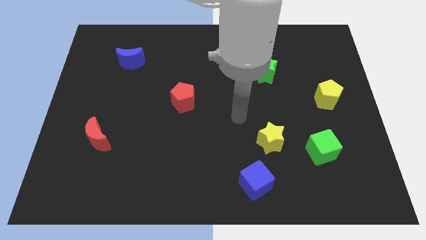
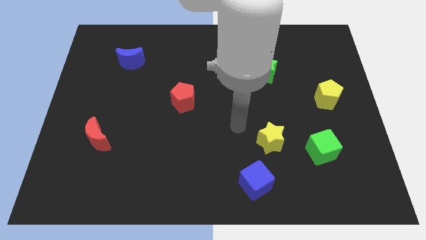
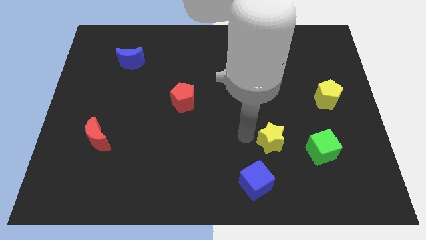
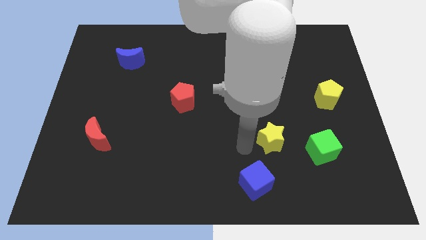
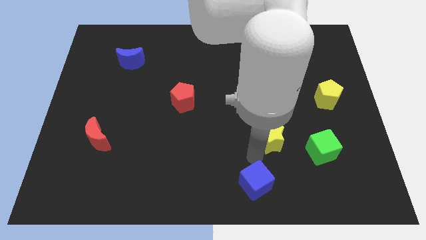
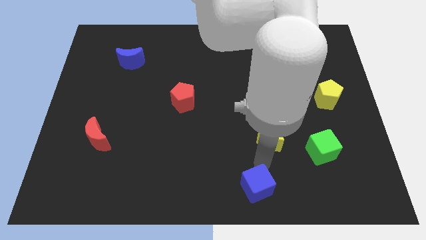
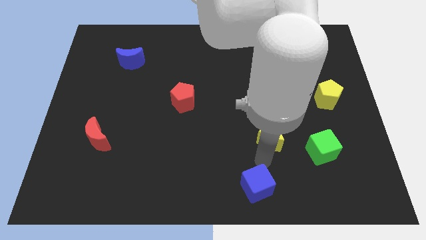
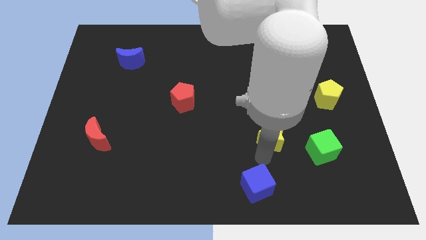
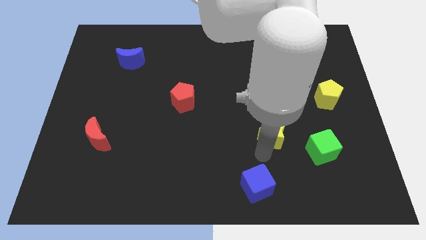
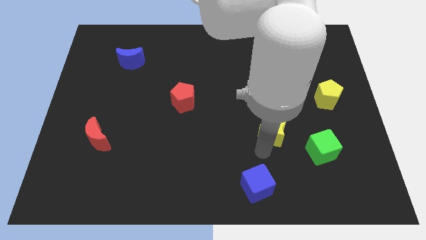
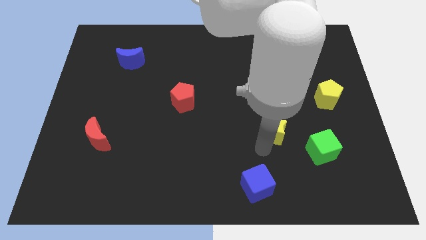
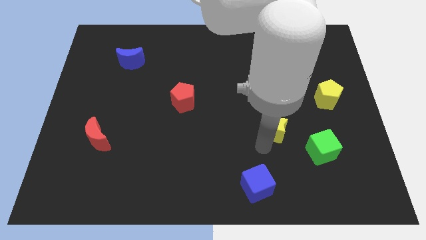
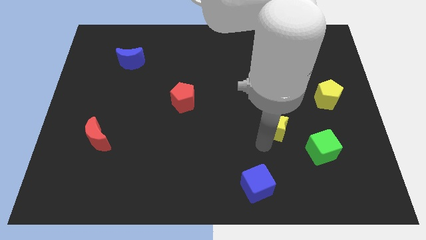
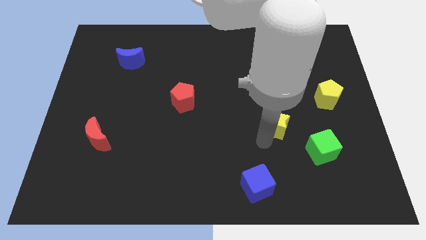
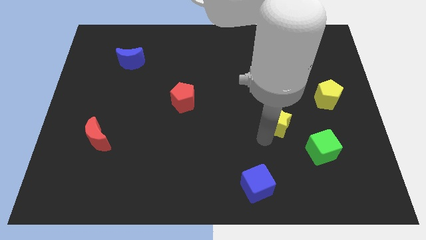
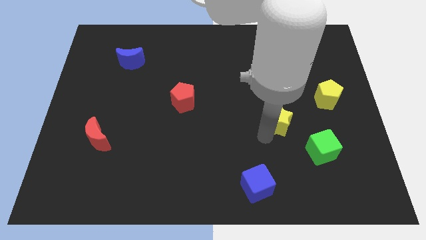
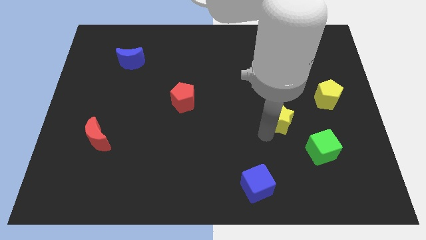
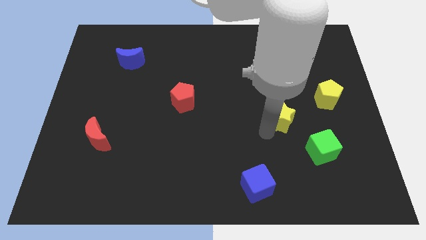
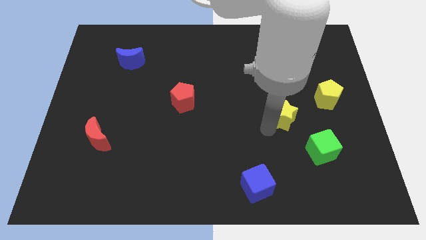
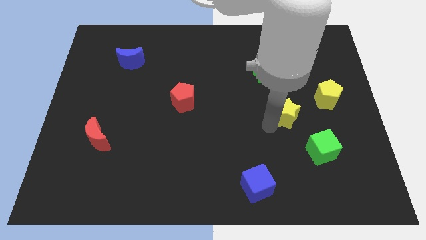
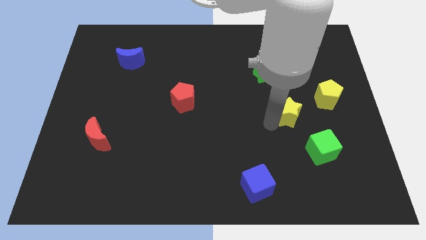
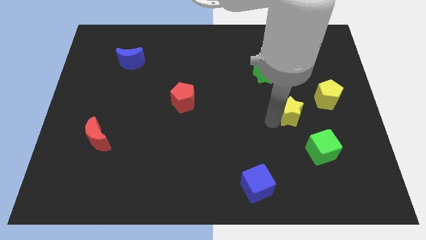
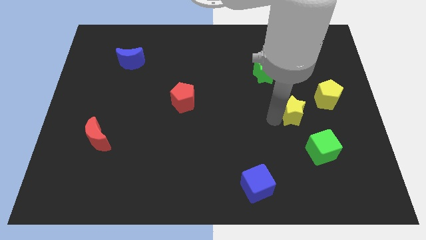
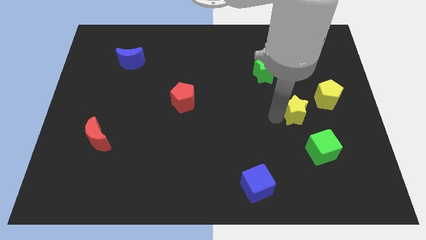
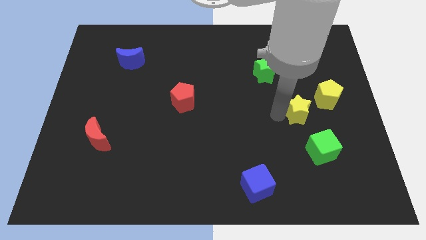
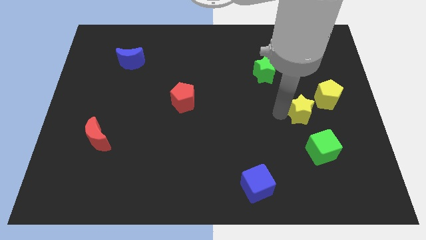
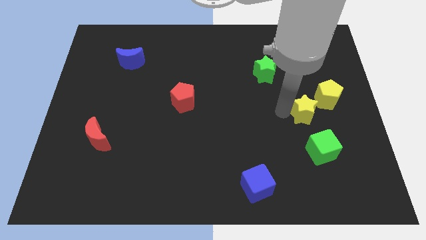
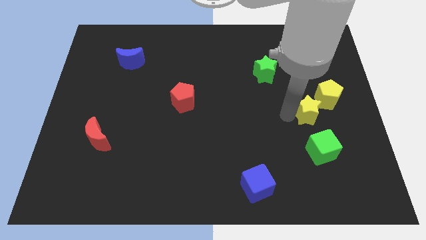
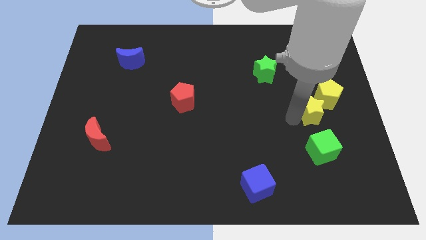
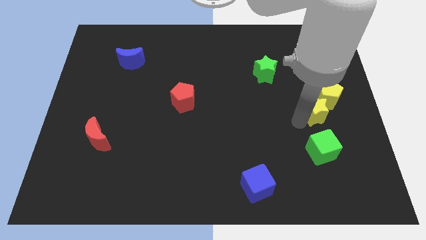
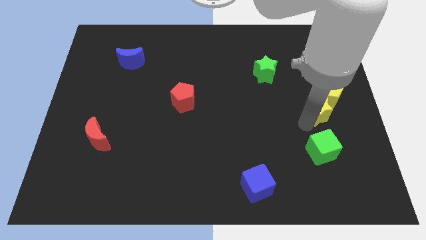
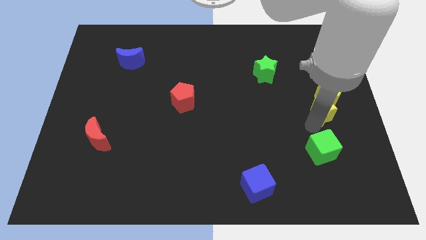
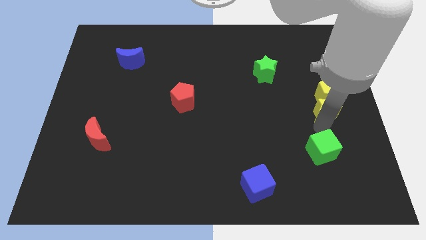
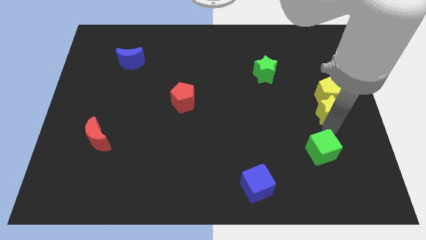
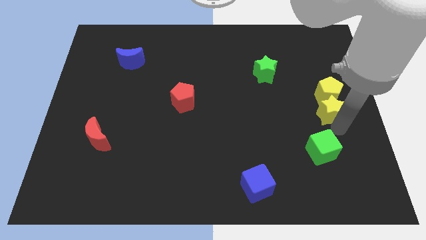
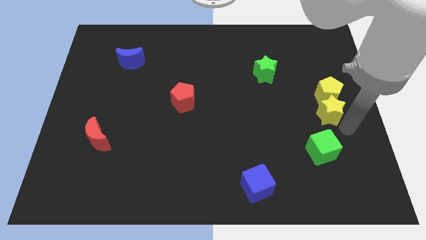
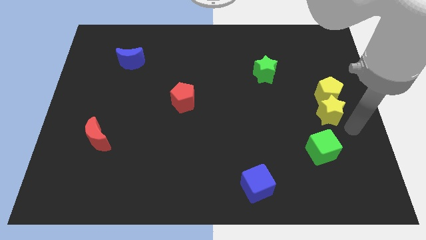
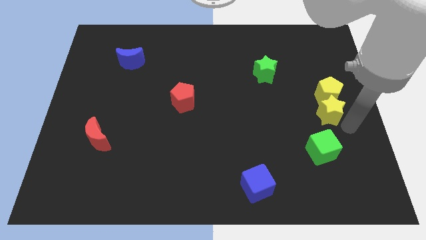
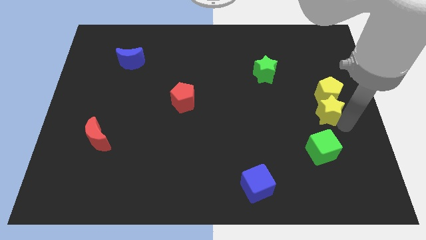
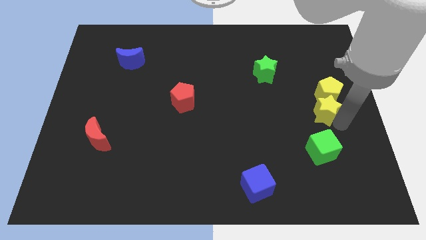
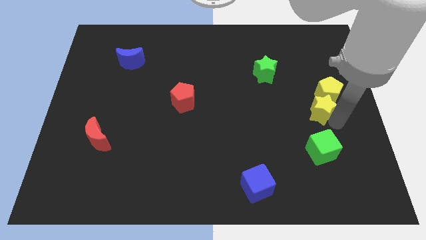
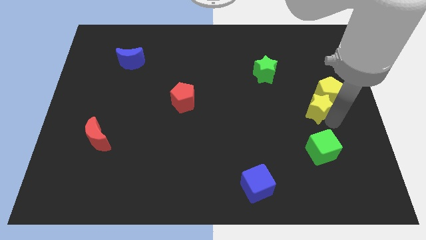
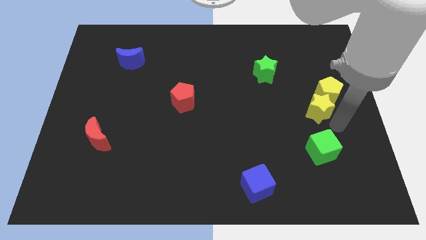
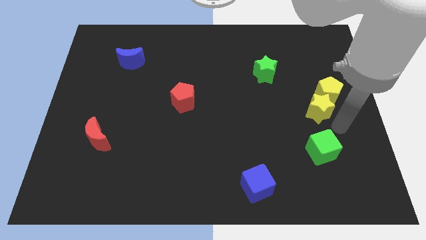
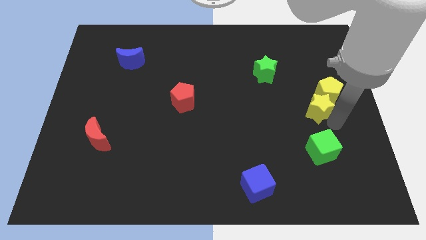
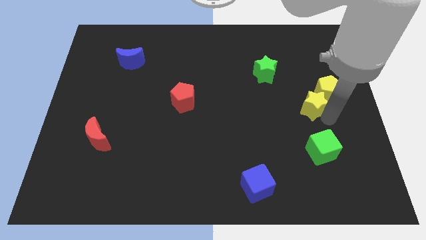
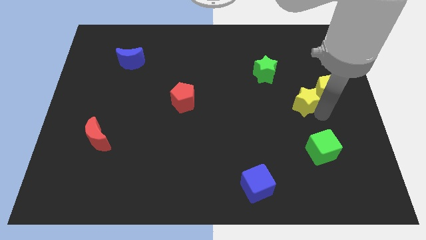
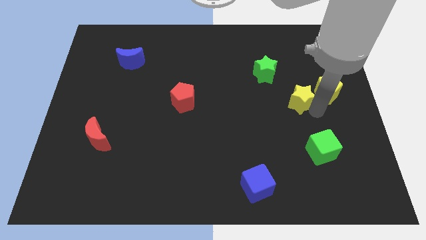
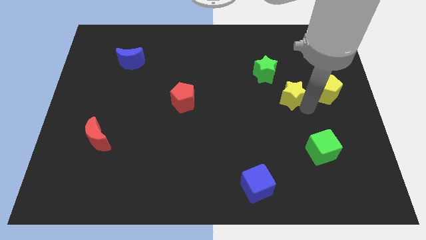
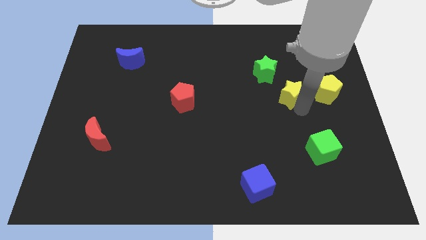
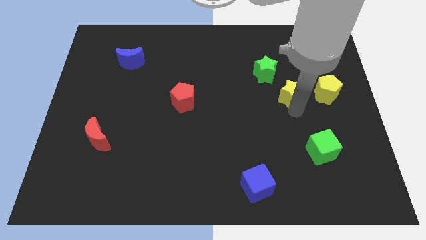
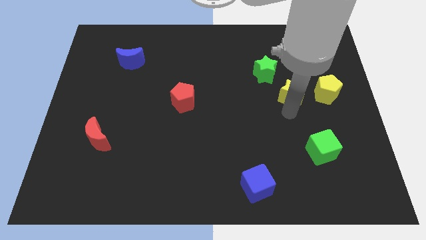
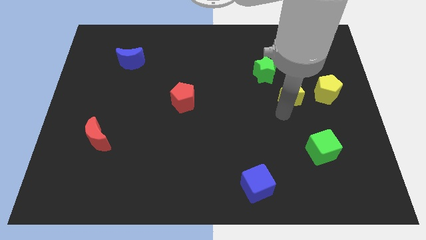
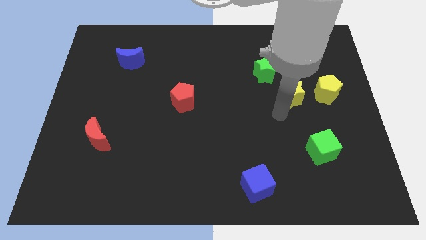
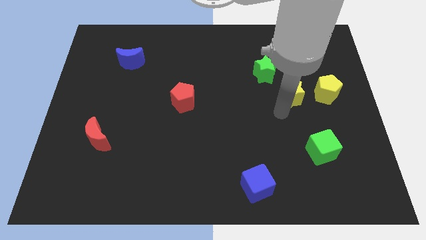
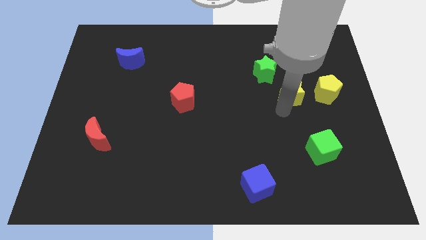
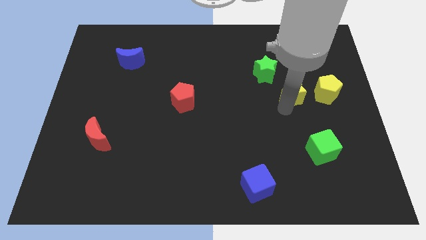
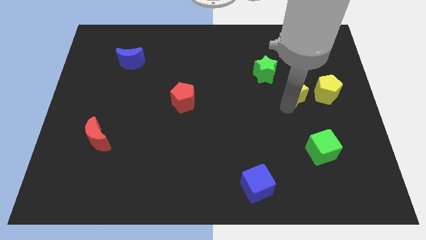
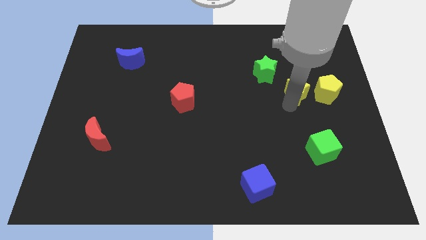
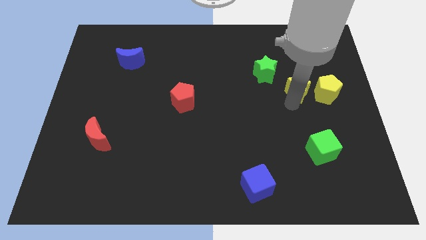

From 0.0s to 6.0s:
move the yellow star to the top left side of the yellow pentagon

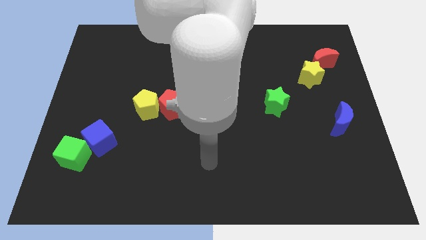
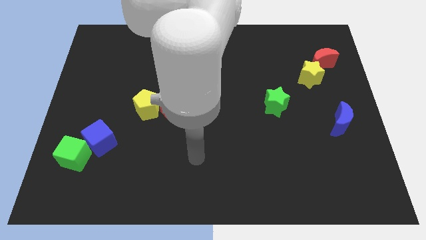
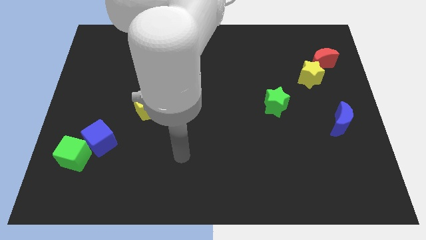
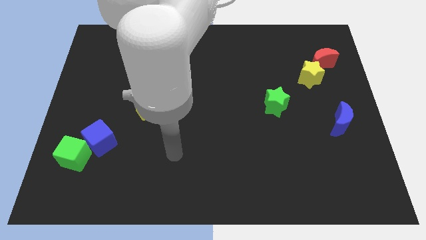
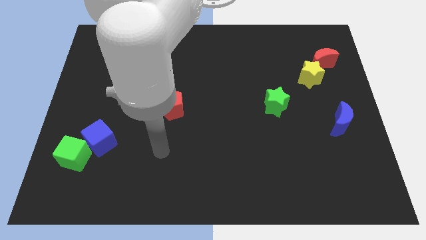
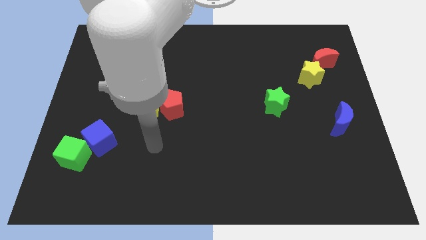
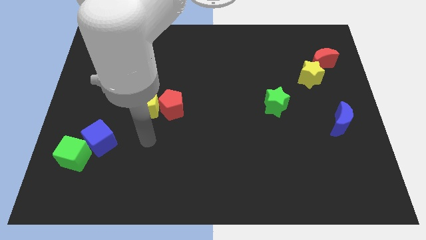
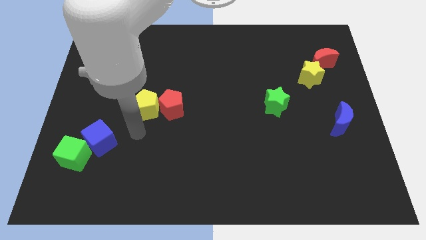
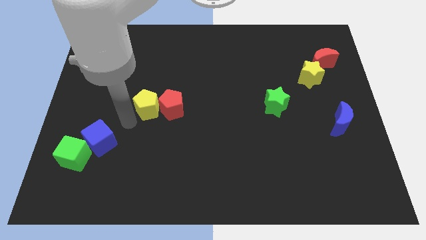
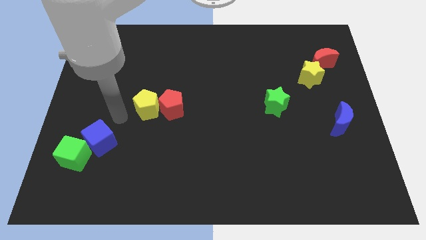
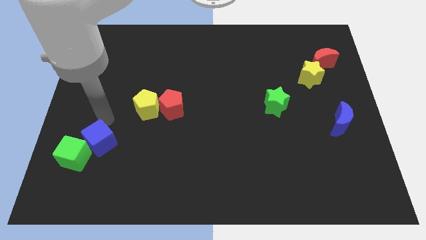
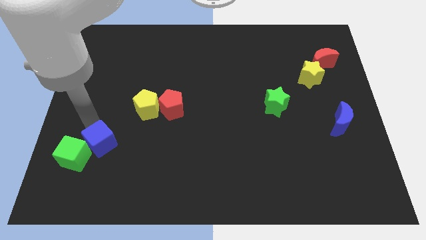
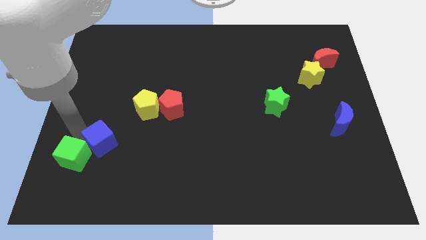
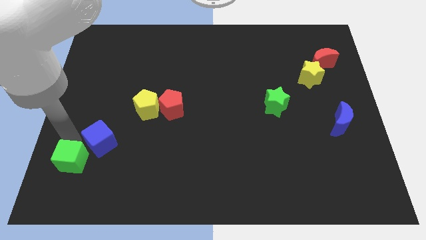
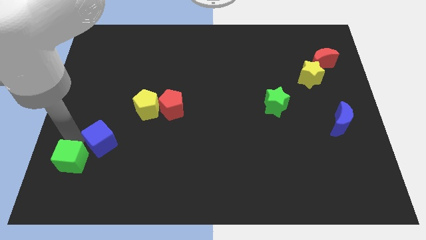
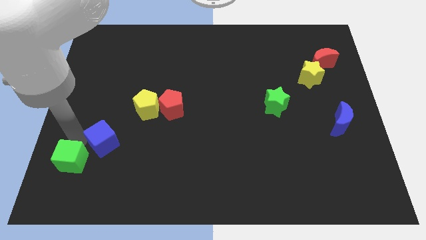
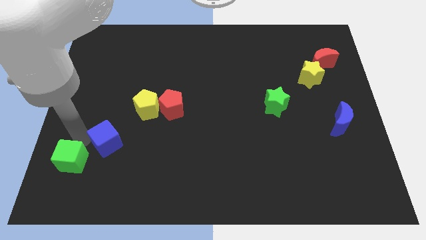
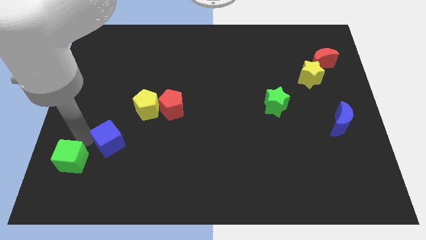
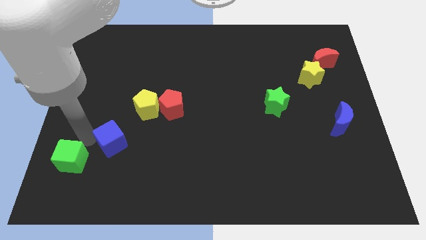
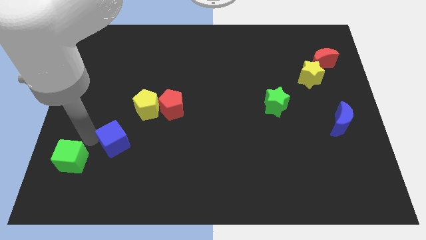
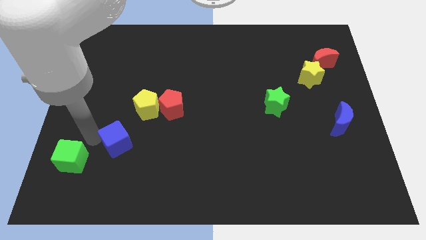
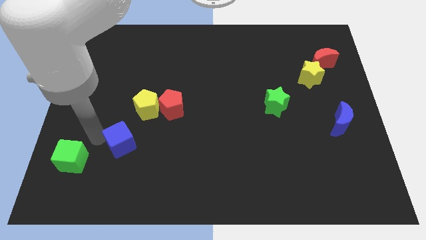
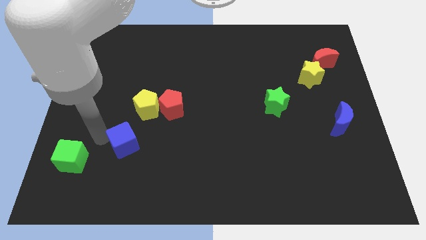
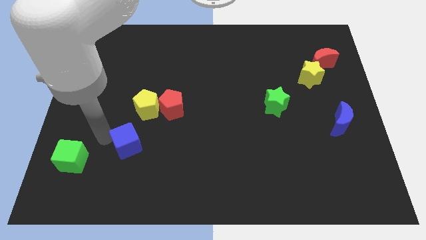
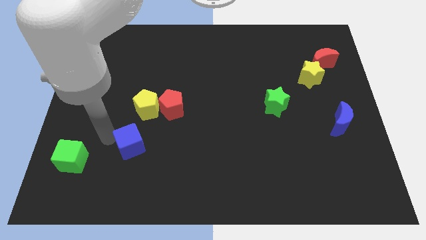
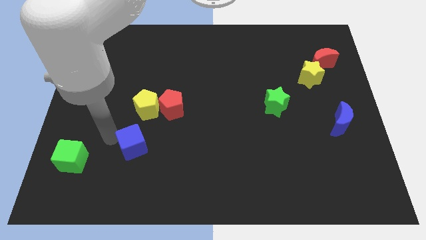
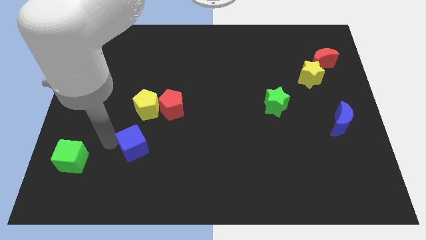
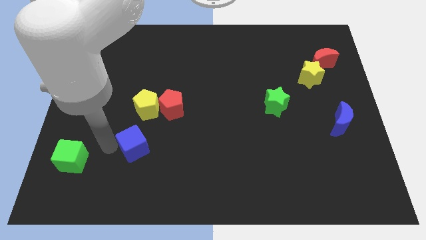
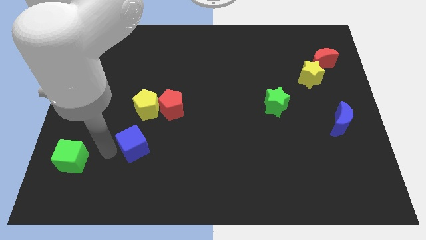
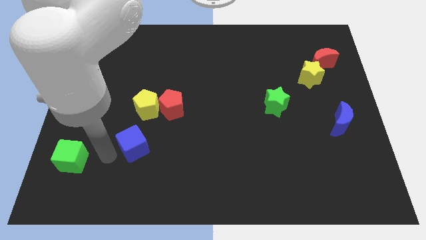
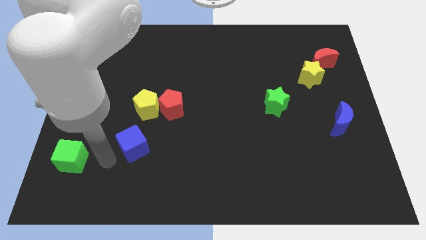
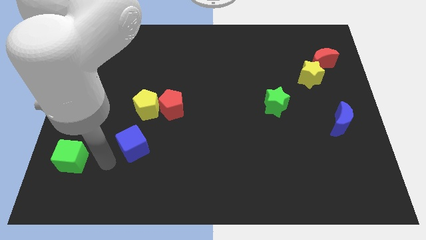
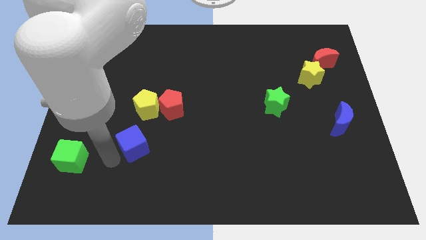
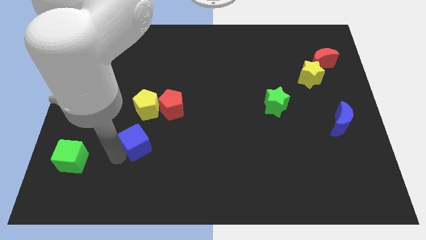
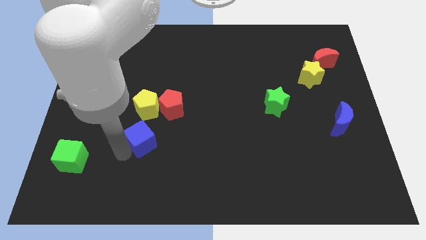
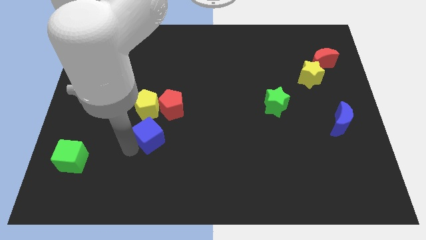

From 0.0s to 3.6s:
slide the blue cube diagonally down and to the right of the yellow pentagon
